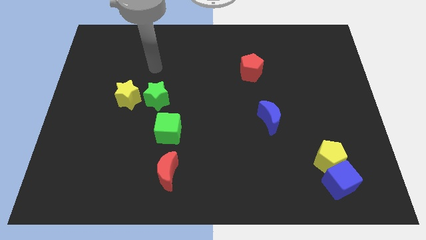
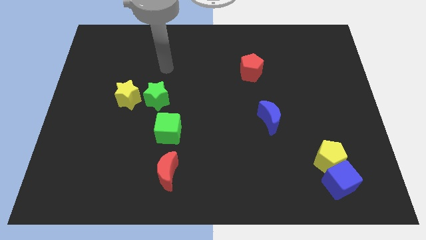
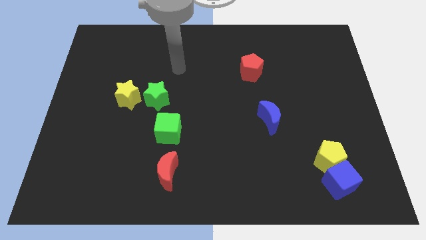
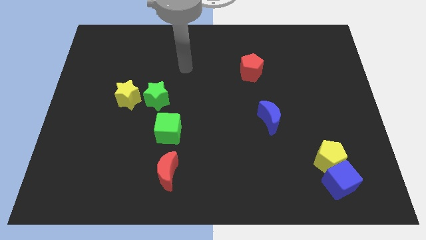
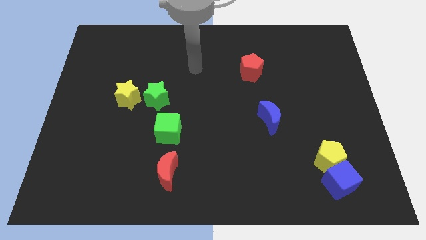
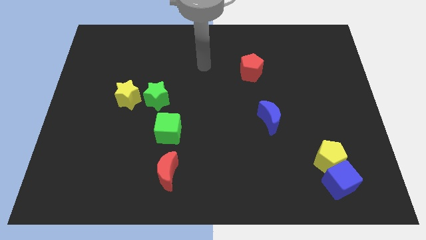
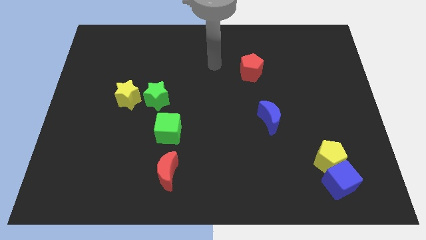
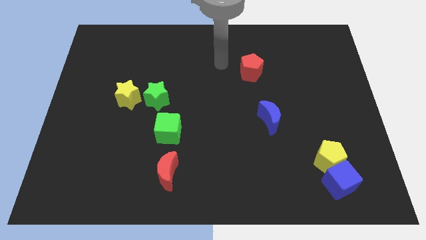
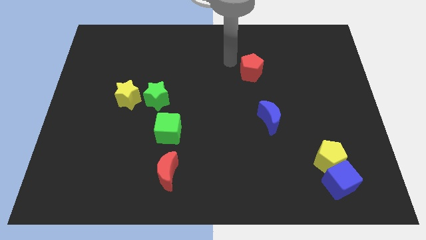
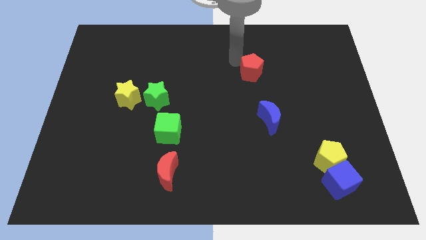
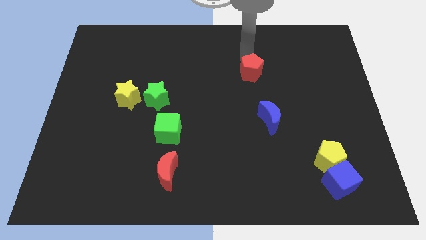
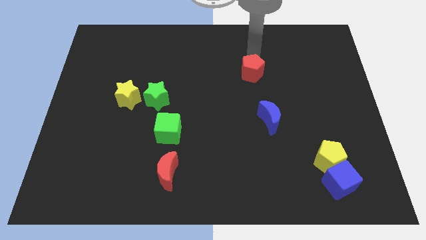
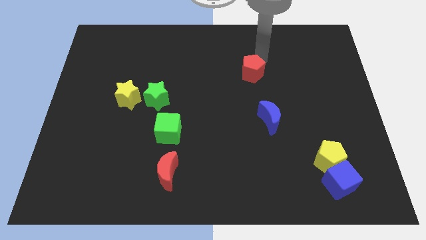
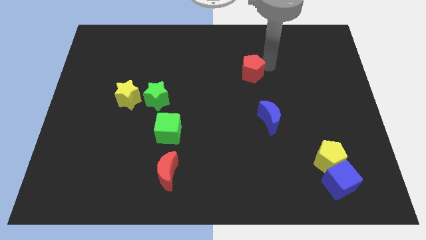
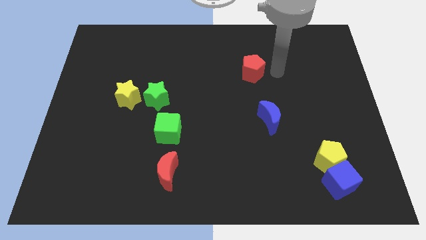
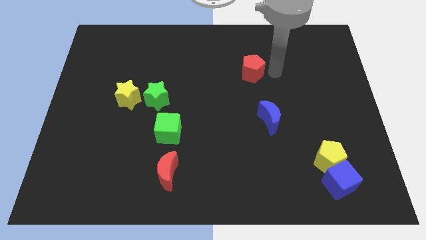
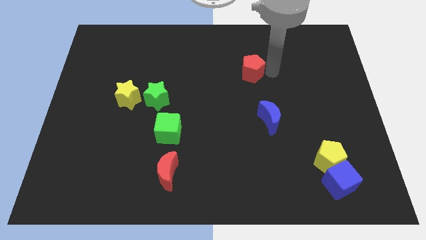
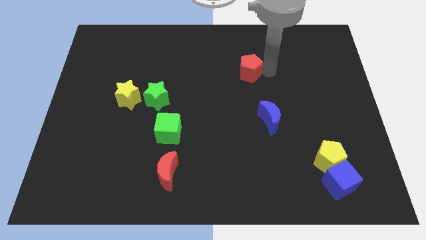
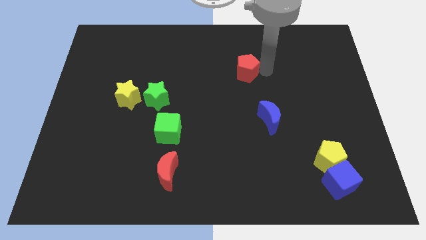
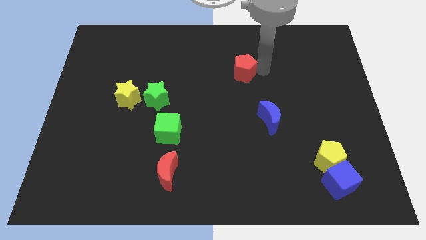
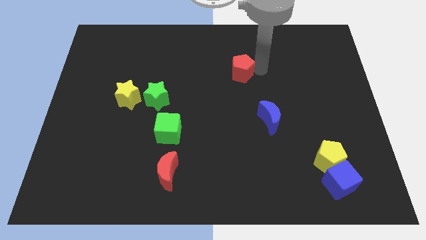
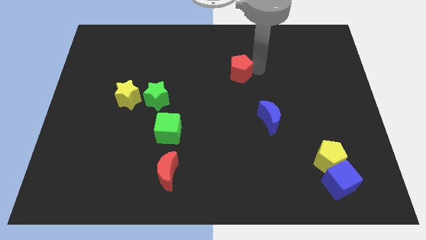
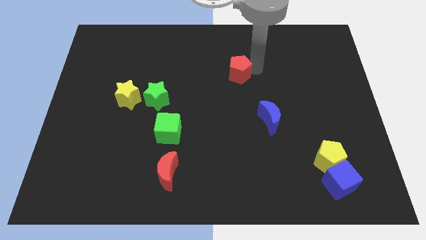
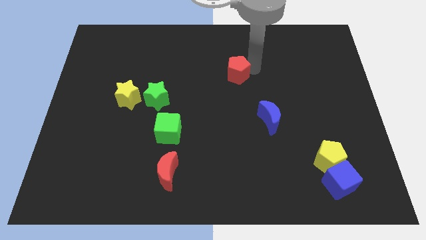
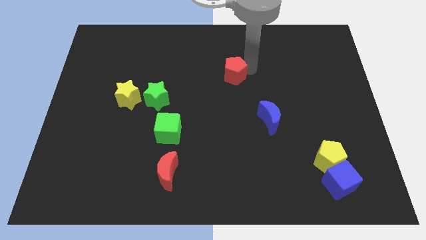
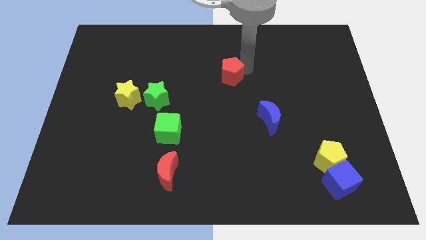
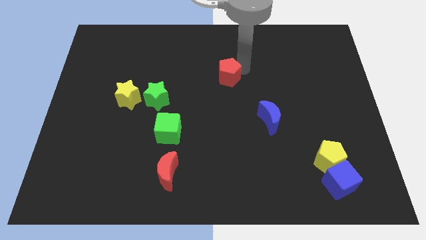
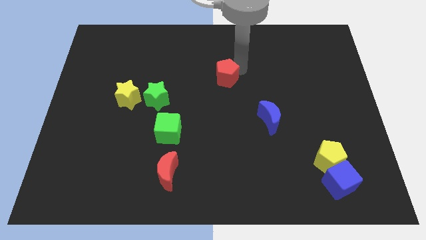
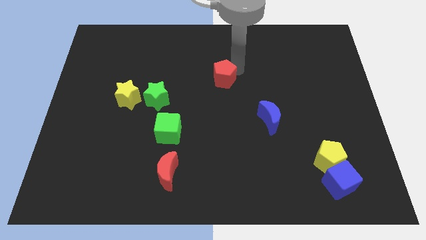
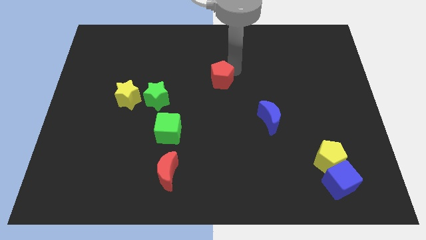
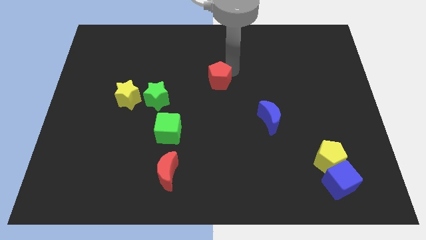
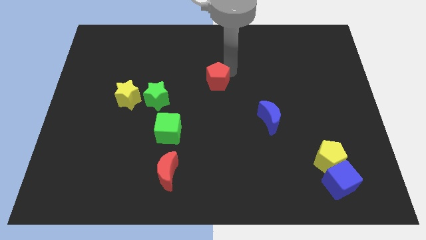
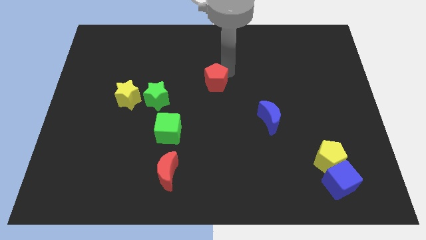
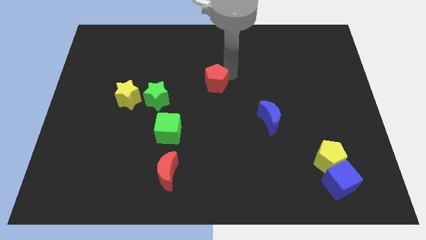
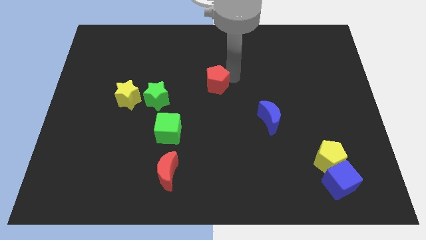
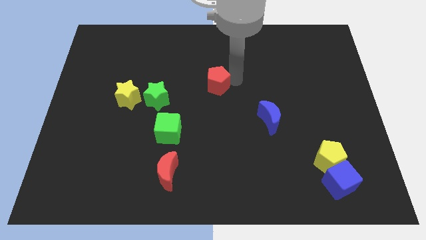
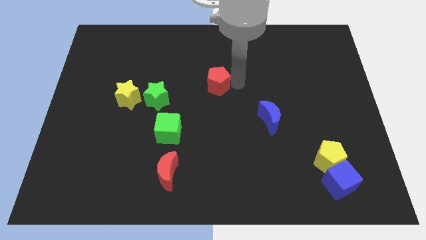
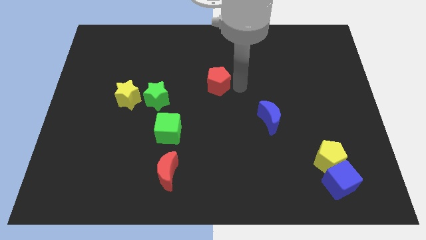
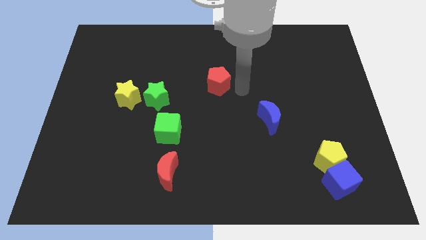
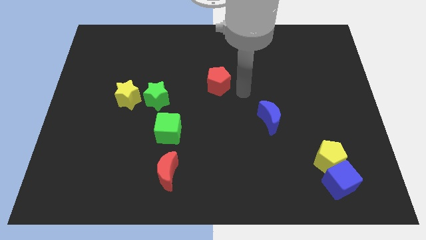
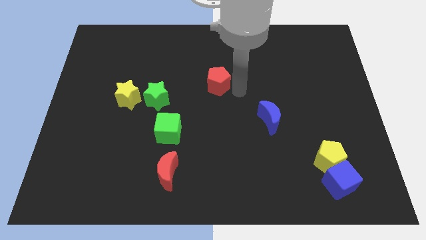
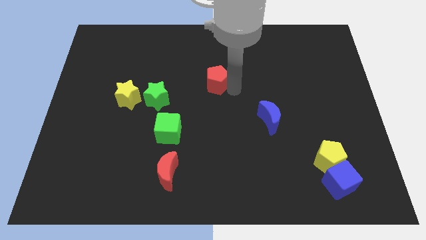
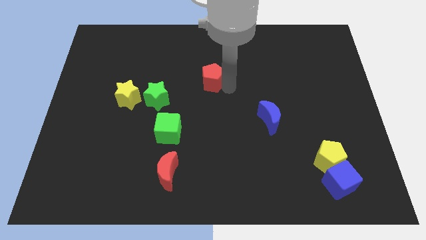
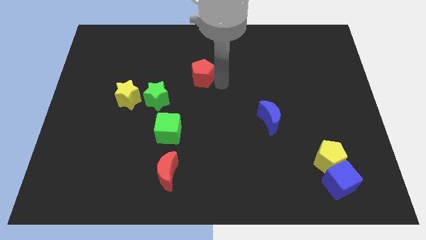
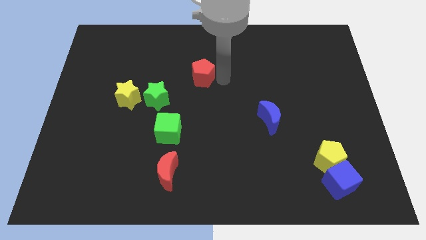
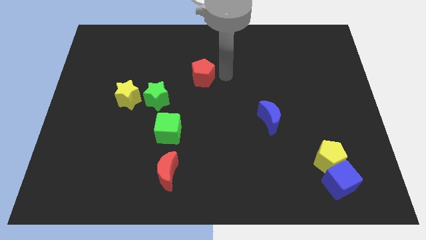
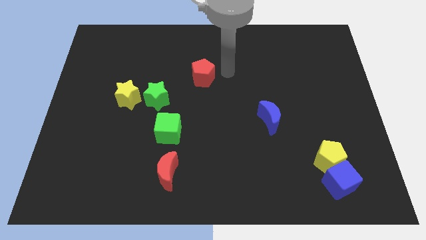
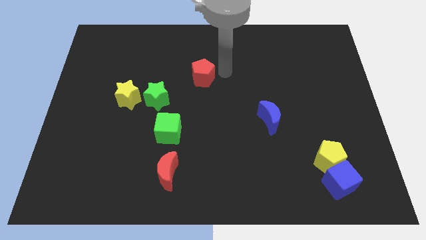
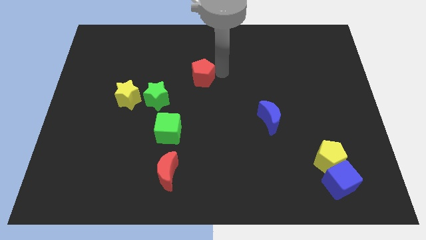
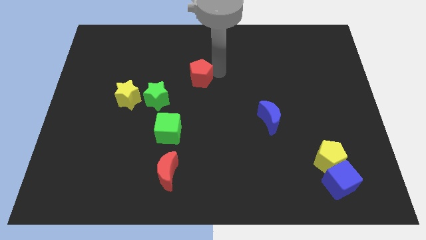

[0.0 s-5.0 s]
put the red pentagon to the top right of the green star

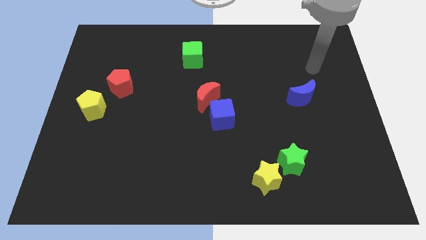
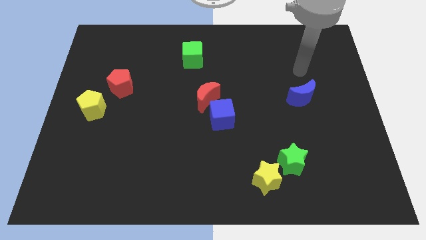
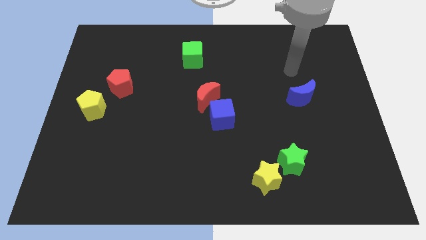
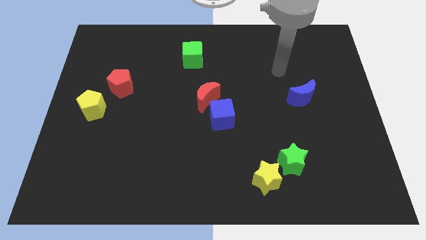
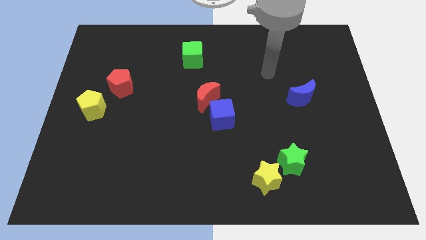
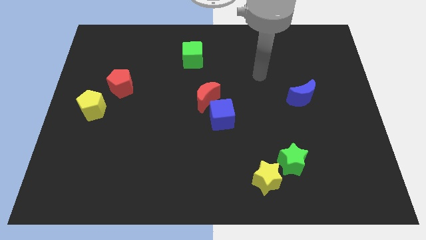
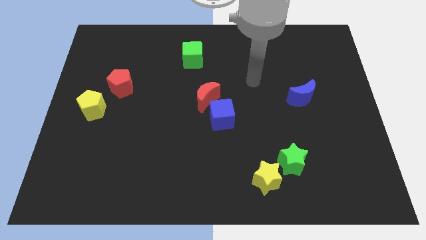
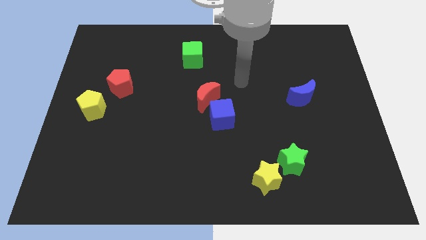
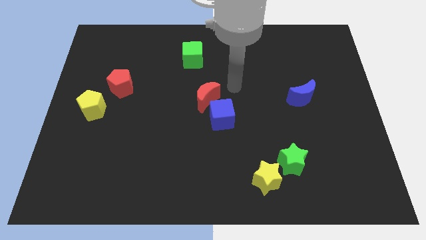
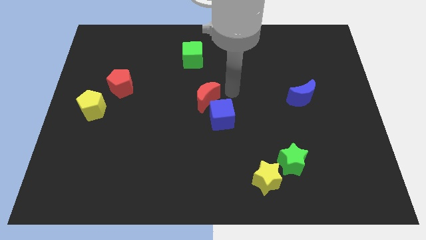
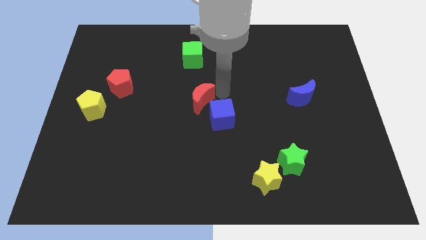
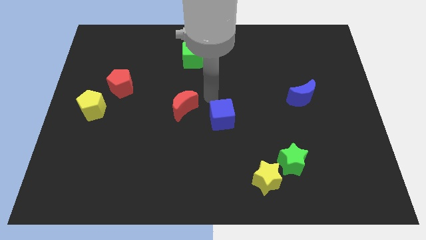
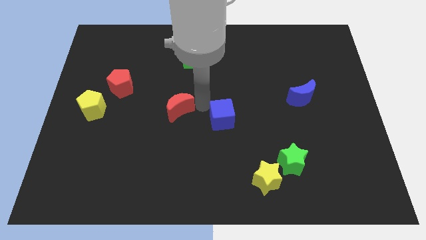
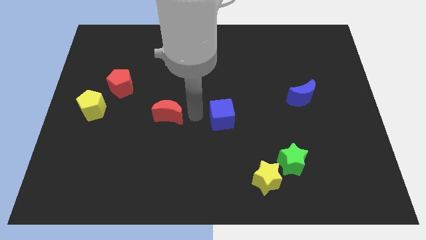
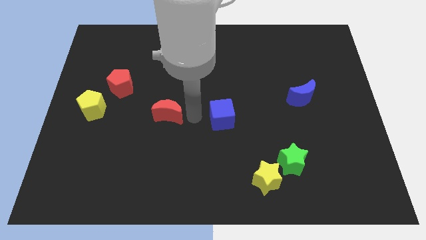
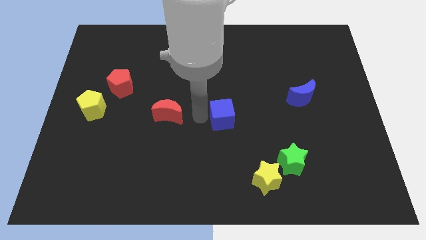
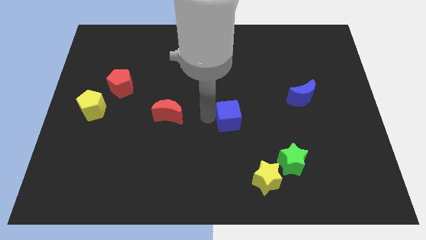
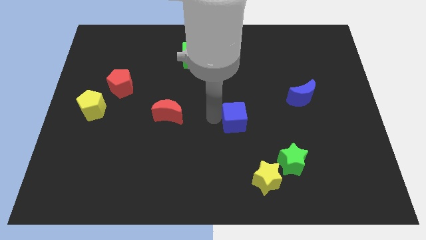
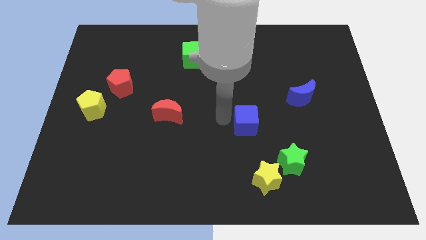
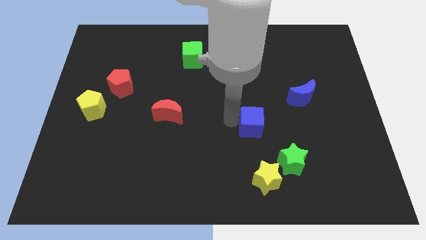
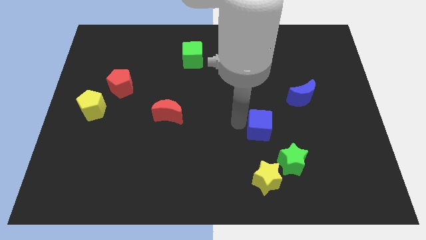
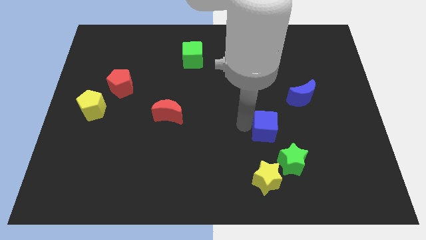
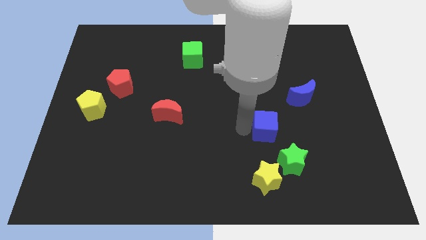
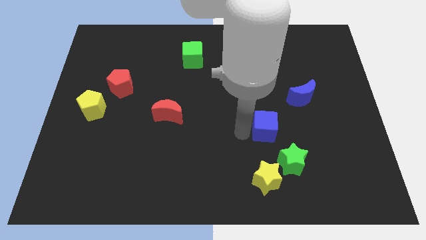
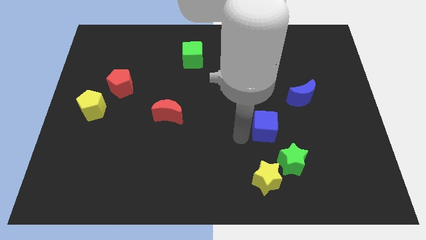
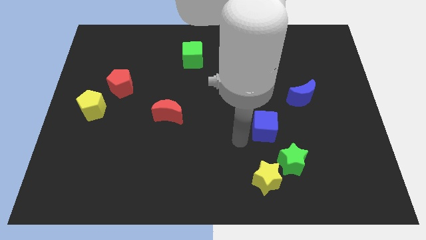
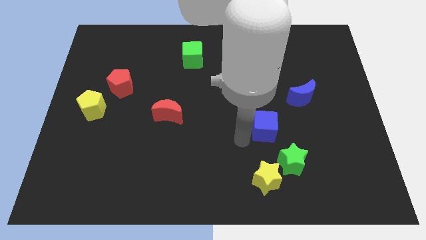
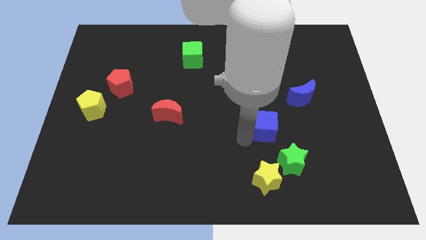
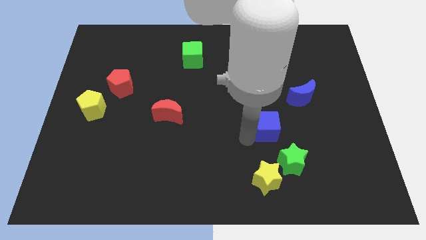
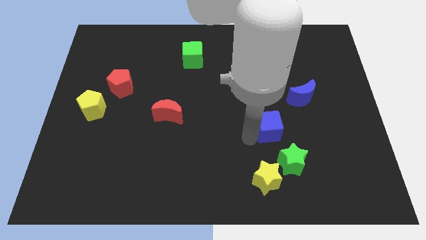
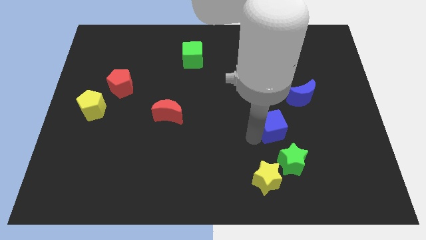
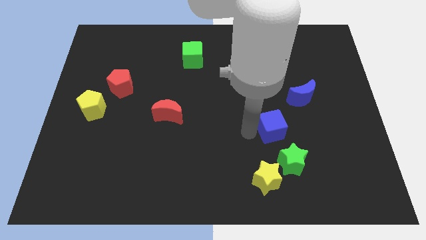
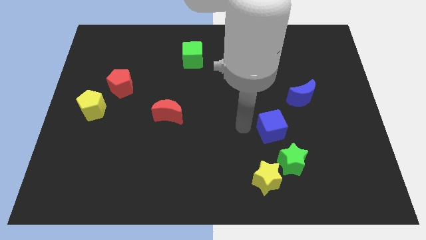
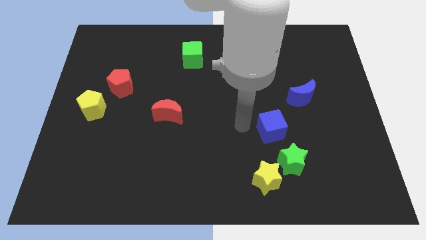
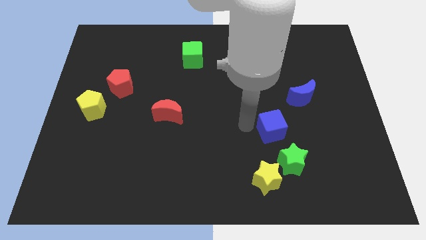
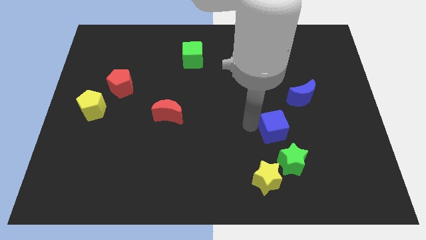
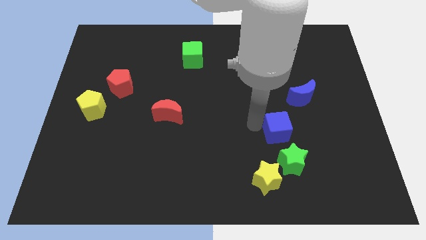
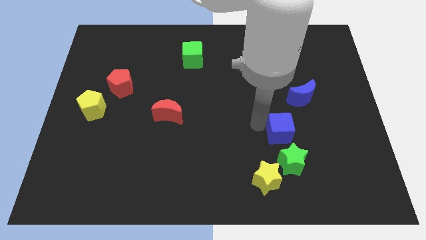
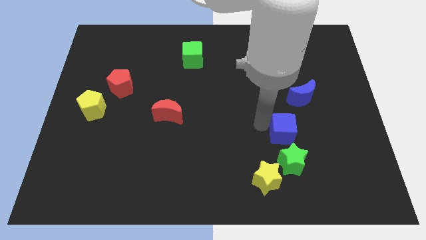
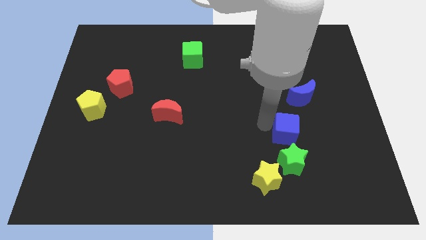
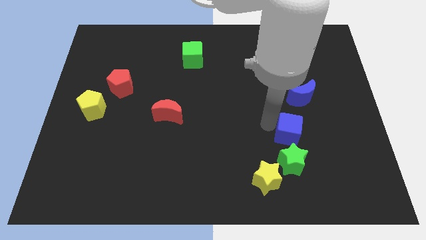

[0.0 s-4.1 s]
push the blue cube below the blue moon
